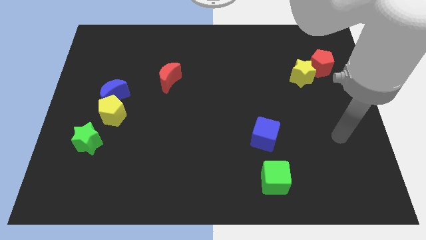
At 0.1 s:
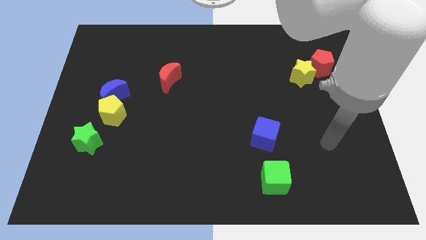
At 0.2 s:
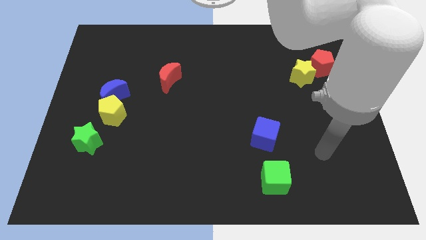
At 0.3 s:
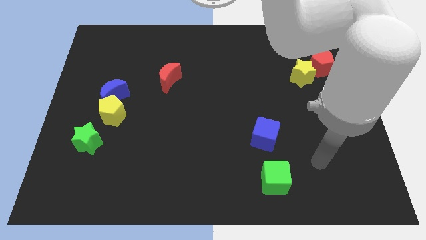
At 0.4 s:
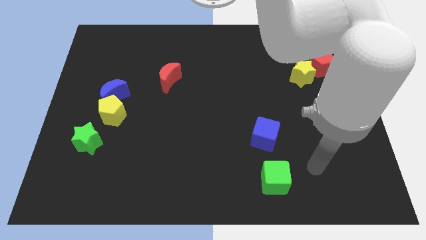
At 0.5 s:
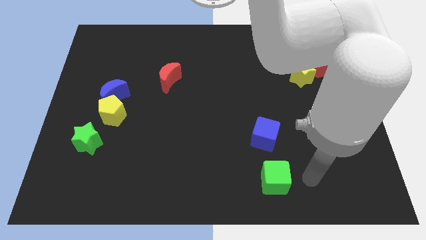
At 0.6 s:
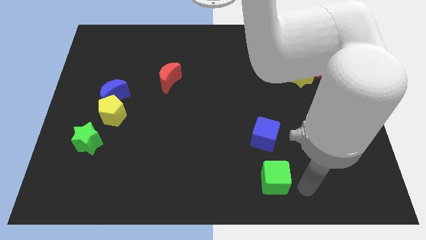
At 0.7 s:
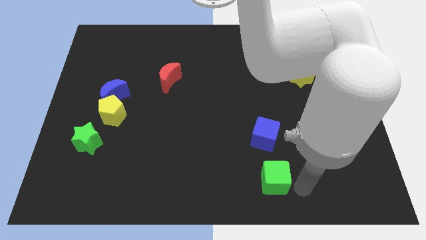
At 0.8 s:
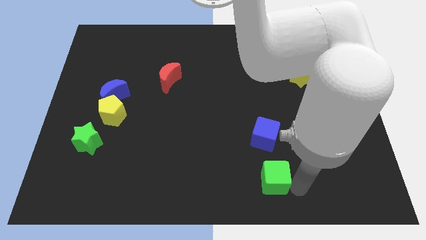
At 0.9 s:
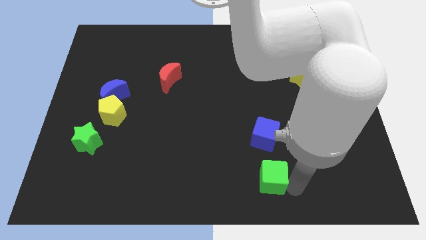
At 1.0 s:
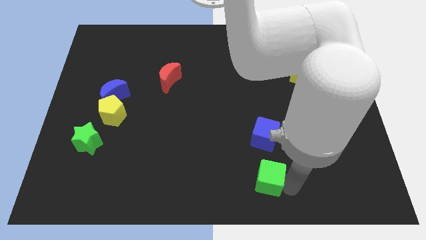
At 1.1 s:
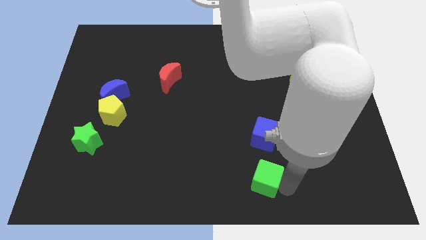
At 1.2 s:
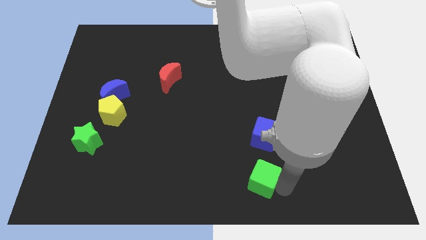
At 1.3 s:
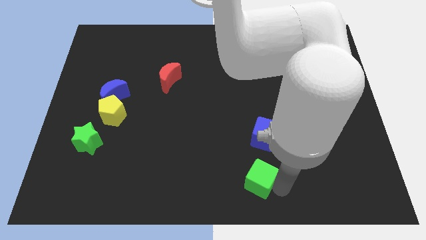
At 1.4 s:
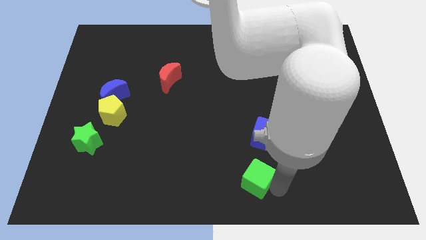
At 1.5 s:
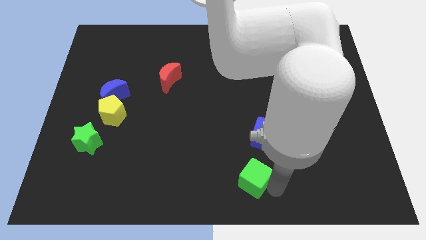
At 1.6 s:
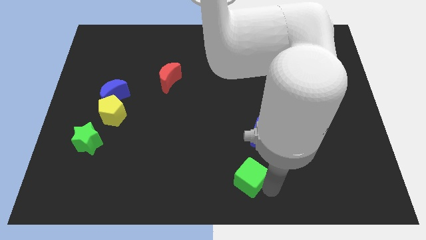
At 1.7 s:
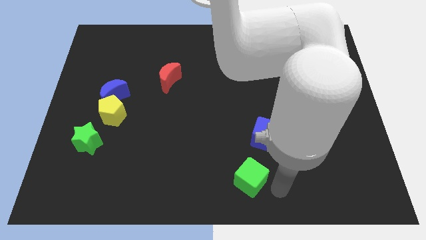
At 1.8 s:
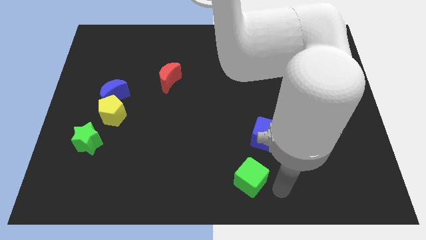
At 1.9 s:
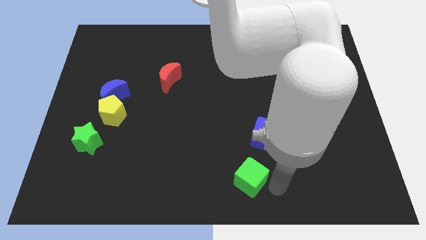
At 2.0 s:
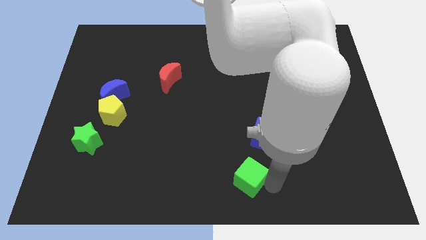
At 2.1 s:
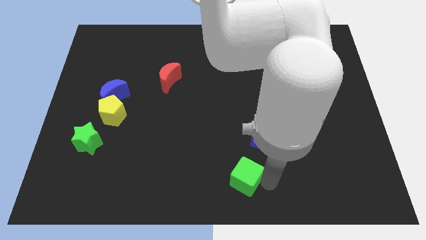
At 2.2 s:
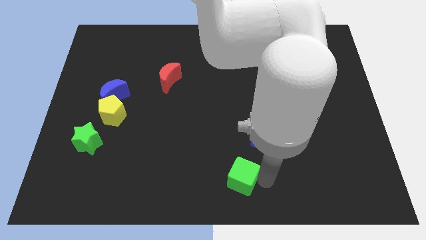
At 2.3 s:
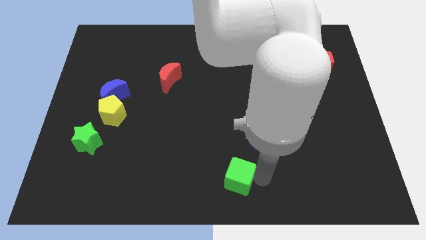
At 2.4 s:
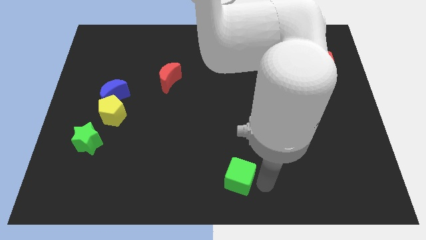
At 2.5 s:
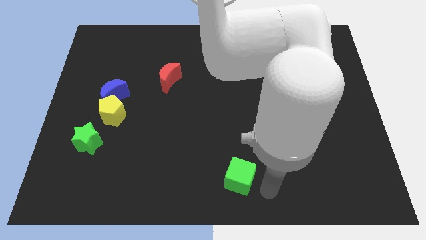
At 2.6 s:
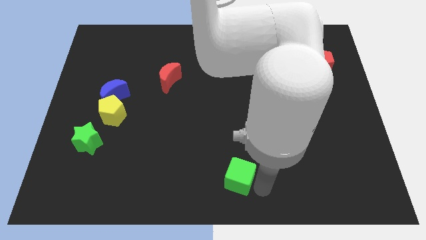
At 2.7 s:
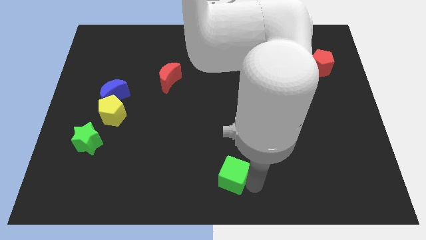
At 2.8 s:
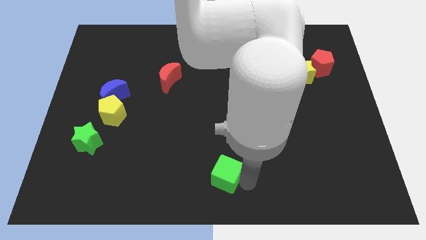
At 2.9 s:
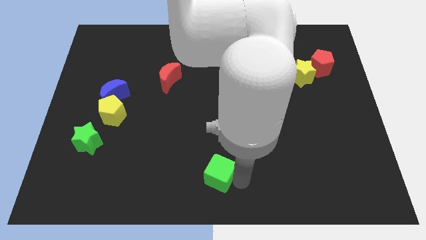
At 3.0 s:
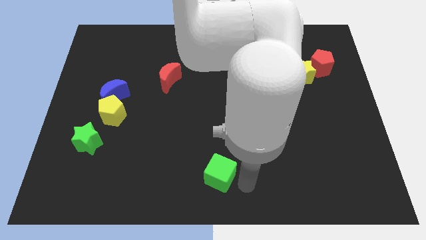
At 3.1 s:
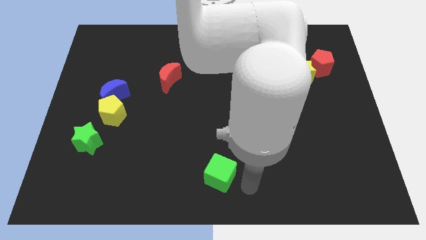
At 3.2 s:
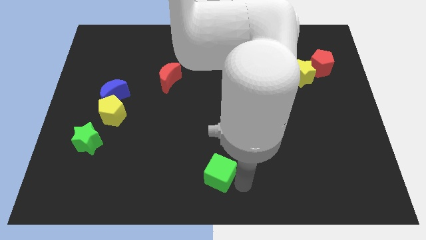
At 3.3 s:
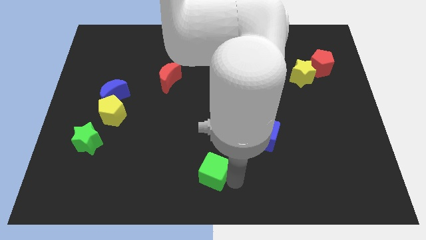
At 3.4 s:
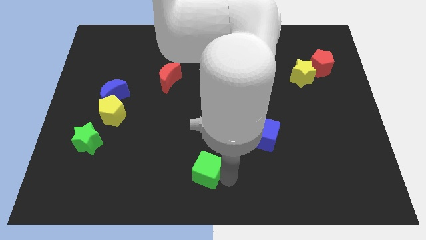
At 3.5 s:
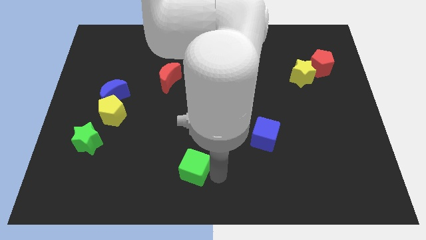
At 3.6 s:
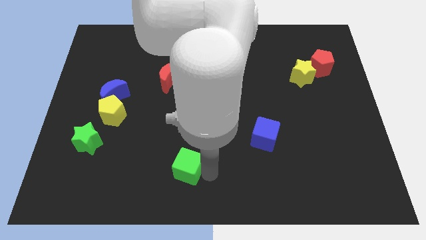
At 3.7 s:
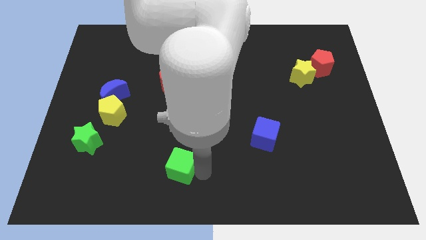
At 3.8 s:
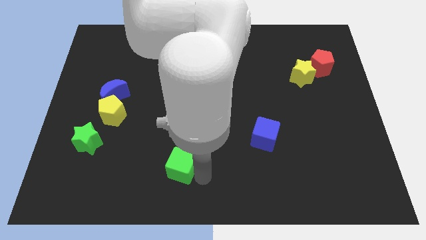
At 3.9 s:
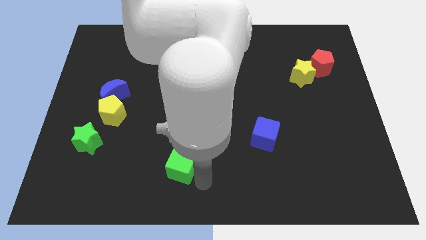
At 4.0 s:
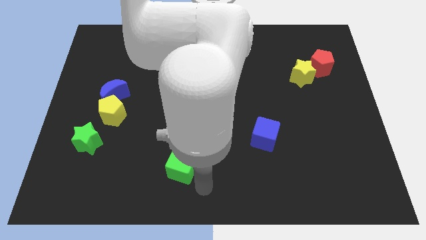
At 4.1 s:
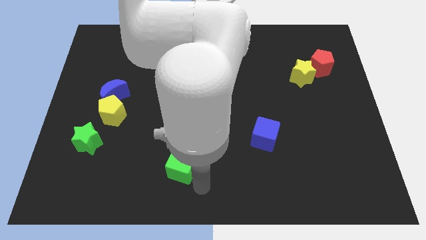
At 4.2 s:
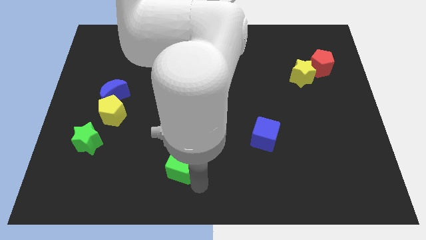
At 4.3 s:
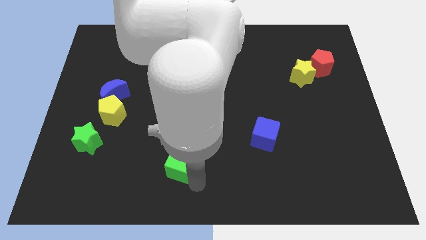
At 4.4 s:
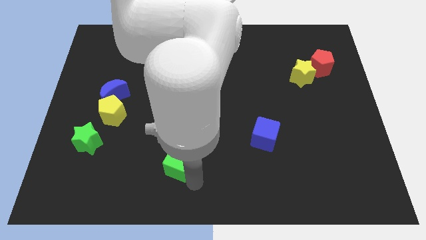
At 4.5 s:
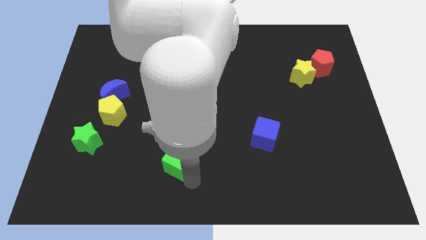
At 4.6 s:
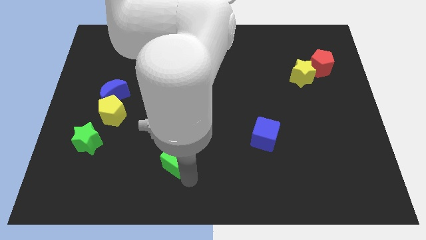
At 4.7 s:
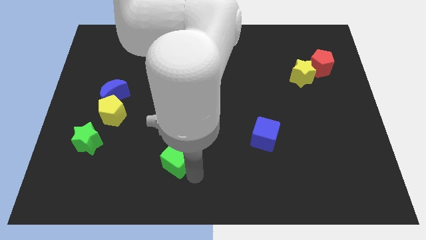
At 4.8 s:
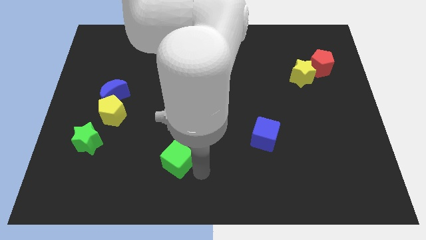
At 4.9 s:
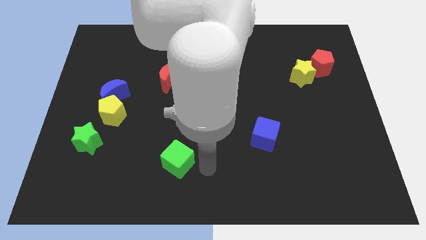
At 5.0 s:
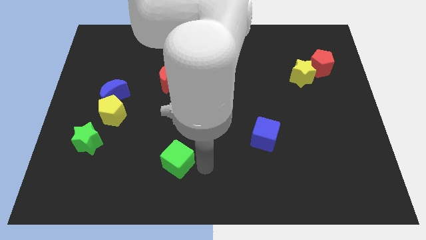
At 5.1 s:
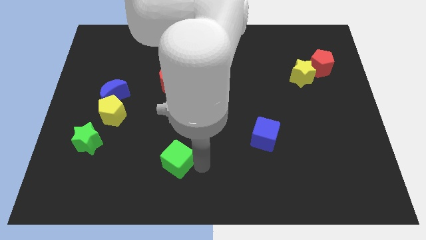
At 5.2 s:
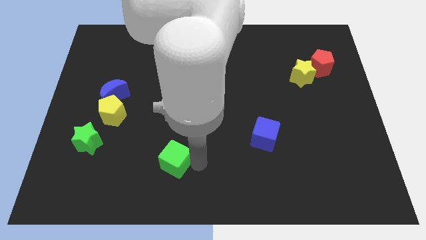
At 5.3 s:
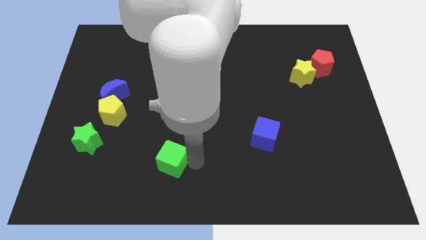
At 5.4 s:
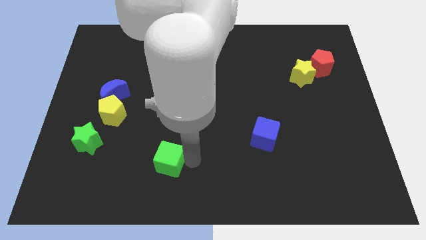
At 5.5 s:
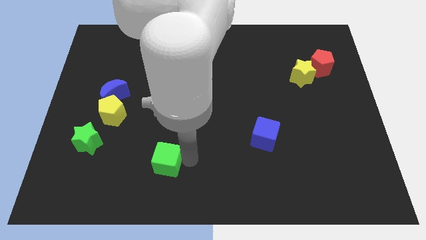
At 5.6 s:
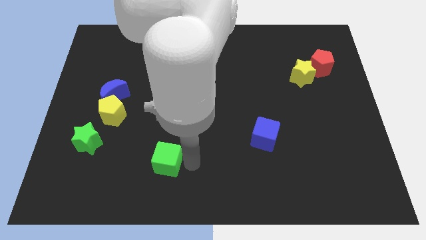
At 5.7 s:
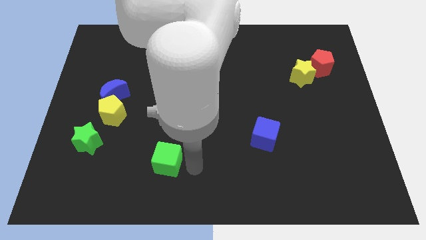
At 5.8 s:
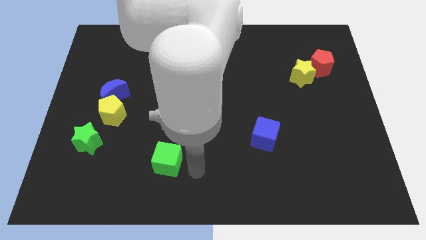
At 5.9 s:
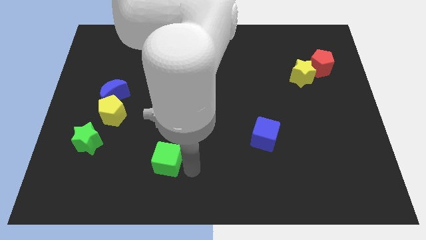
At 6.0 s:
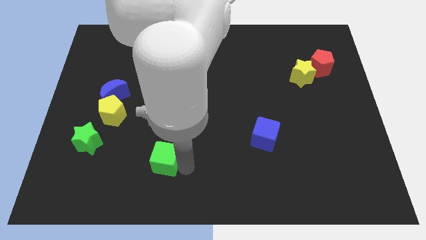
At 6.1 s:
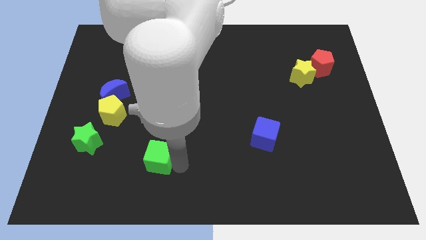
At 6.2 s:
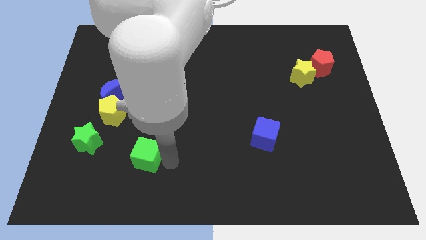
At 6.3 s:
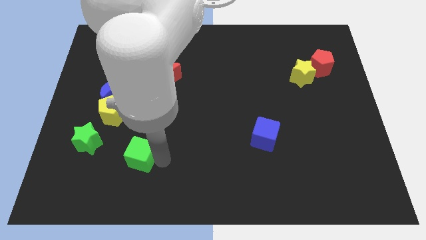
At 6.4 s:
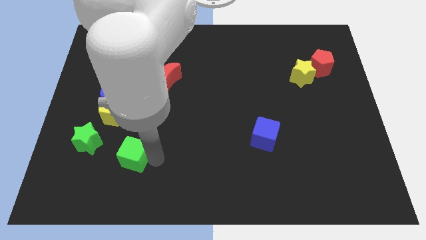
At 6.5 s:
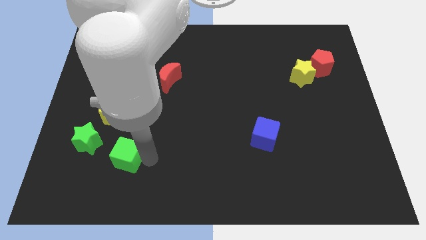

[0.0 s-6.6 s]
move the green cube below the yellow pentagon

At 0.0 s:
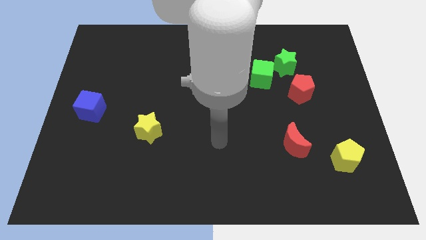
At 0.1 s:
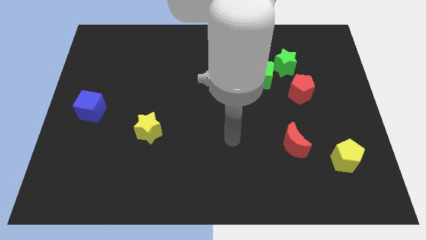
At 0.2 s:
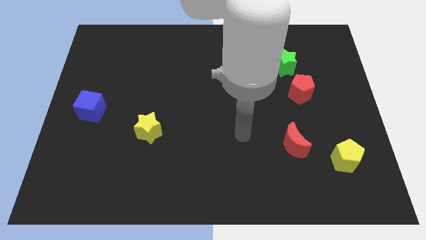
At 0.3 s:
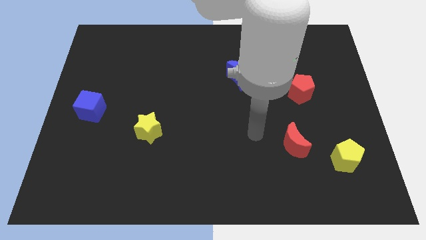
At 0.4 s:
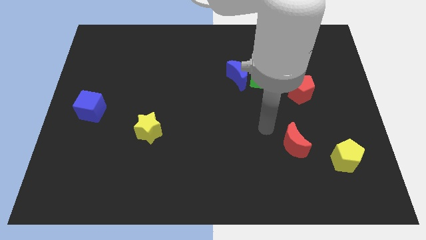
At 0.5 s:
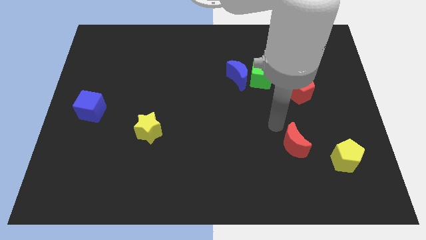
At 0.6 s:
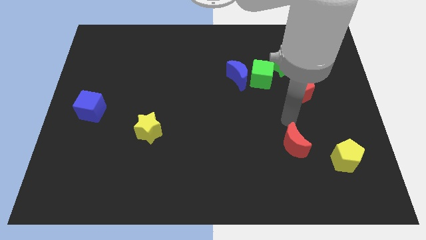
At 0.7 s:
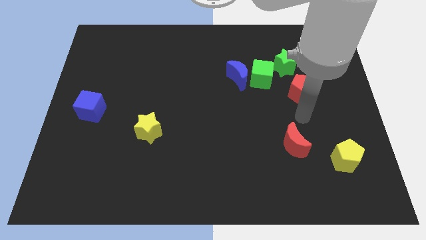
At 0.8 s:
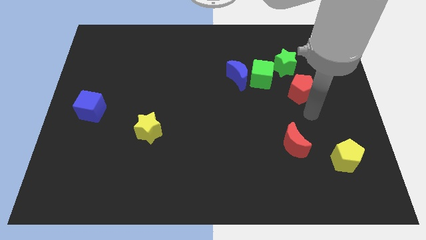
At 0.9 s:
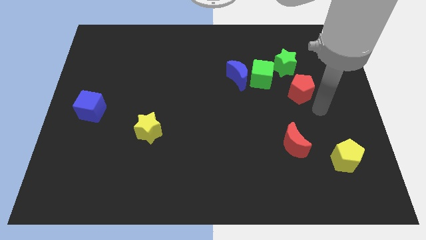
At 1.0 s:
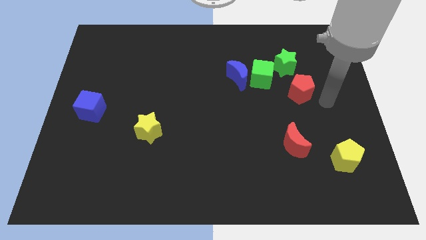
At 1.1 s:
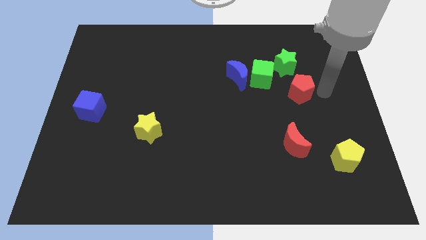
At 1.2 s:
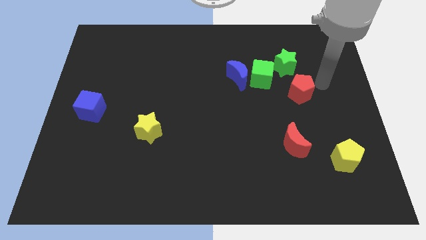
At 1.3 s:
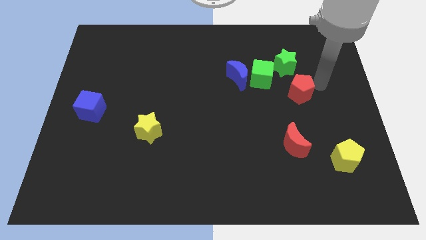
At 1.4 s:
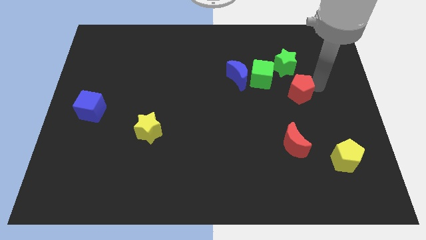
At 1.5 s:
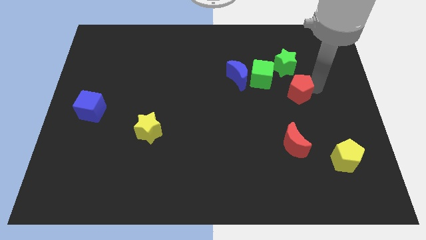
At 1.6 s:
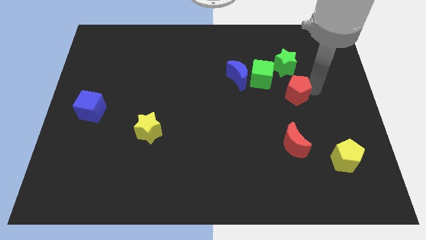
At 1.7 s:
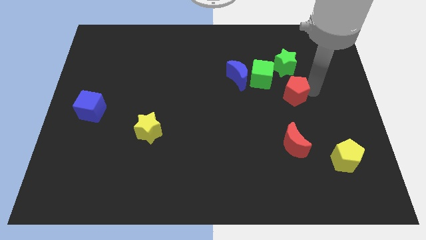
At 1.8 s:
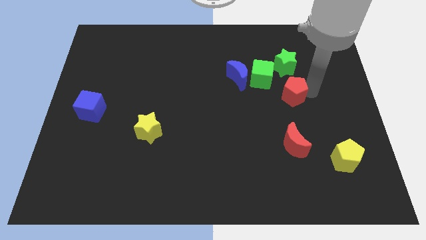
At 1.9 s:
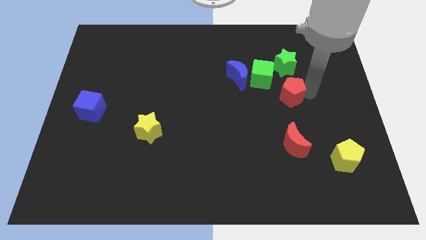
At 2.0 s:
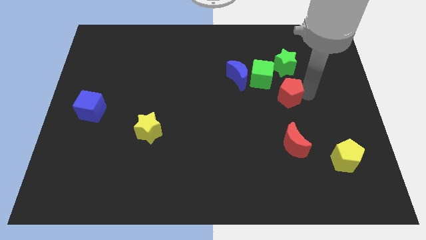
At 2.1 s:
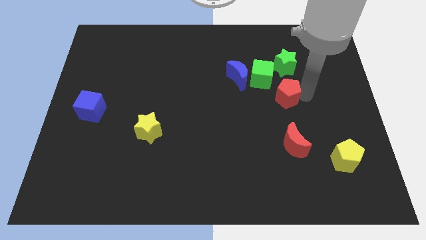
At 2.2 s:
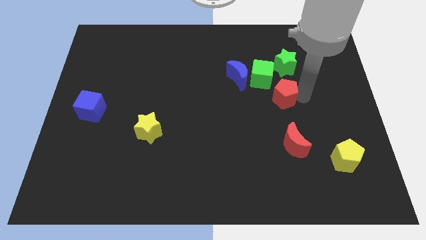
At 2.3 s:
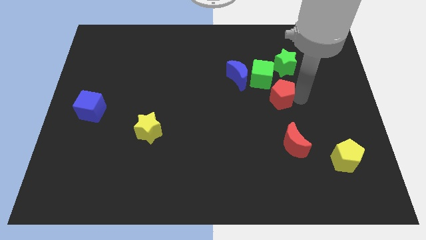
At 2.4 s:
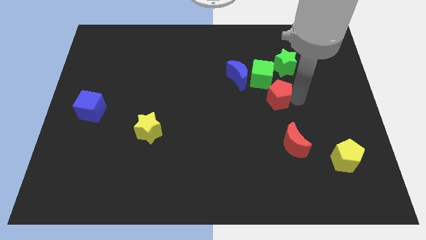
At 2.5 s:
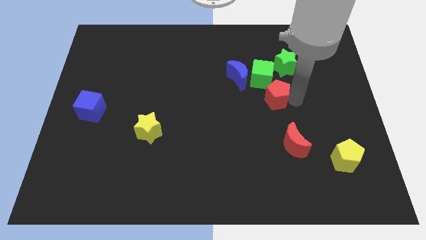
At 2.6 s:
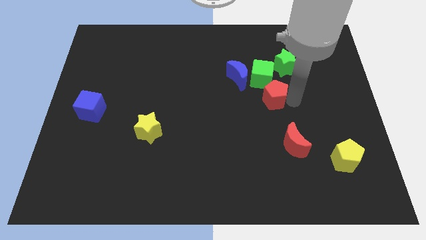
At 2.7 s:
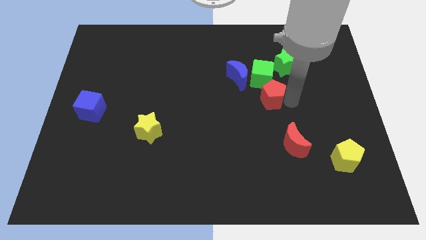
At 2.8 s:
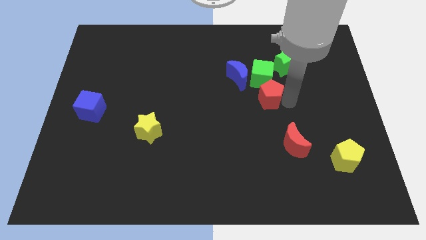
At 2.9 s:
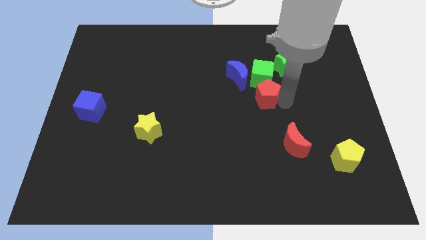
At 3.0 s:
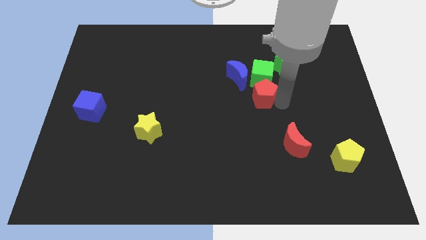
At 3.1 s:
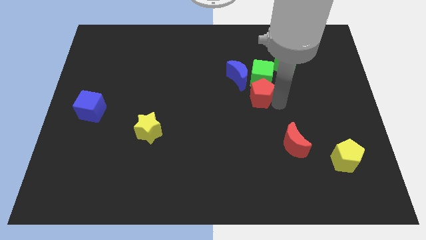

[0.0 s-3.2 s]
push the red pentagon to the bottom of the blue moon
